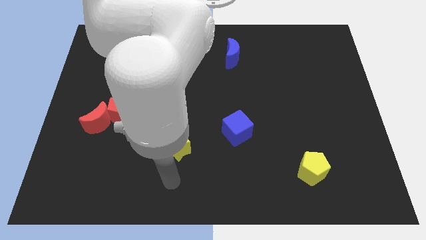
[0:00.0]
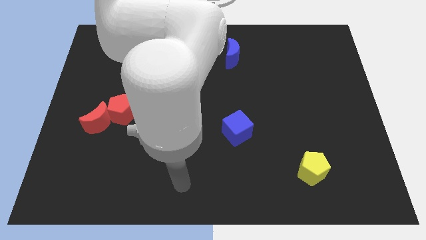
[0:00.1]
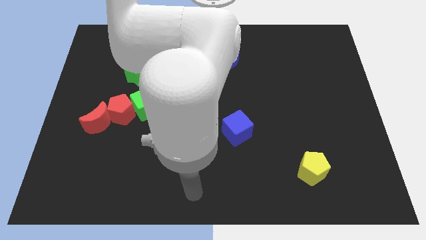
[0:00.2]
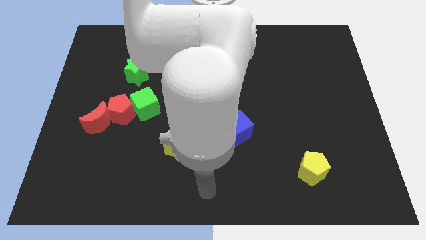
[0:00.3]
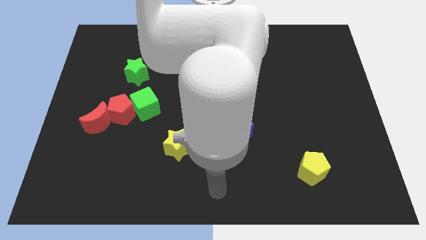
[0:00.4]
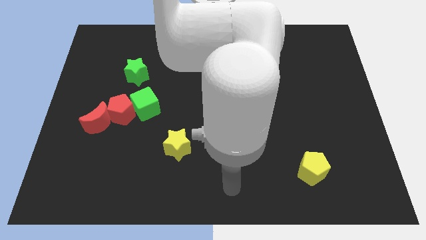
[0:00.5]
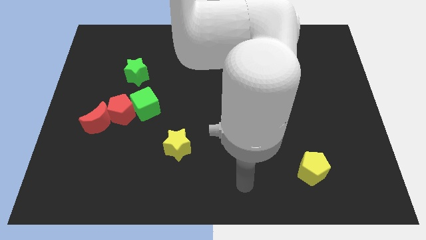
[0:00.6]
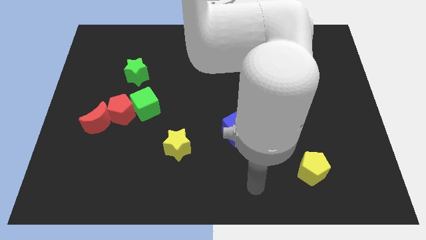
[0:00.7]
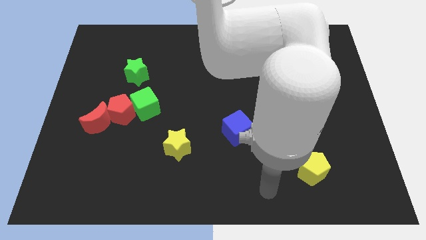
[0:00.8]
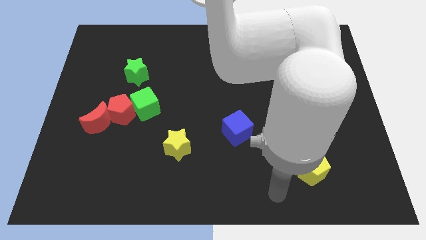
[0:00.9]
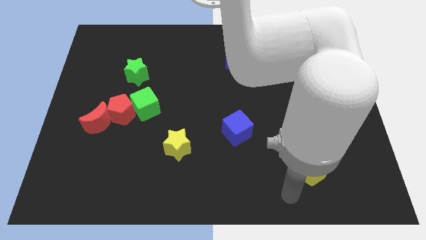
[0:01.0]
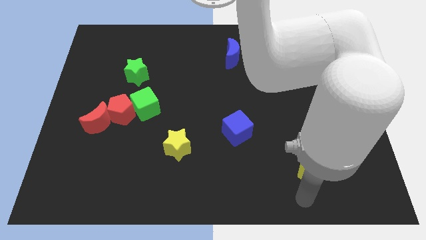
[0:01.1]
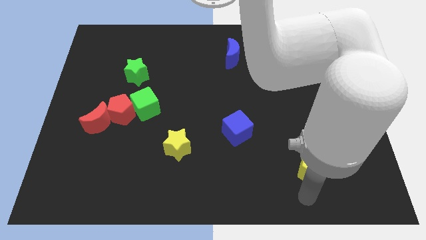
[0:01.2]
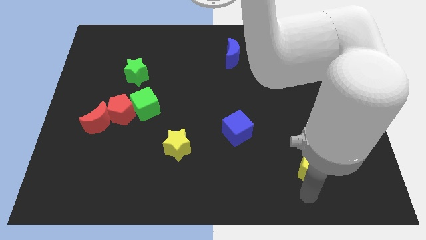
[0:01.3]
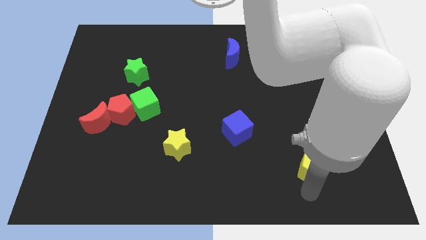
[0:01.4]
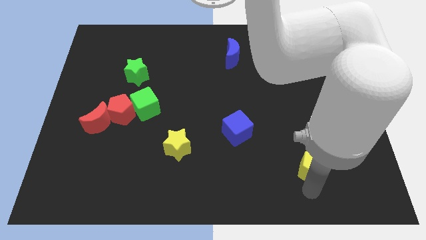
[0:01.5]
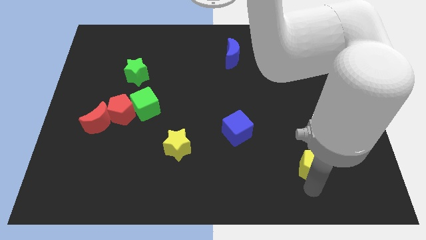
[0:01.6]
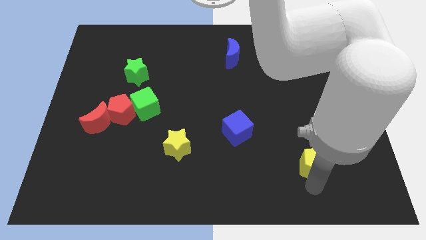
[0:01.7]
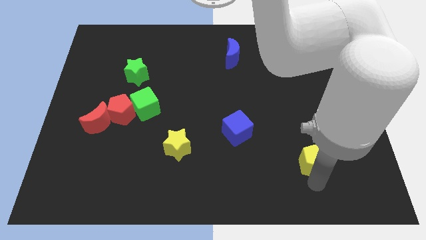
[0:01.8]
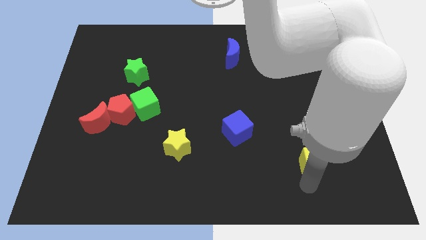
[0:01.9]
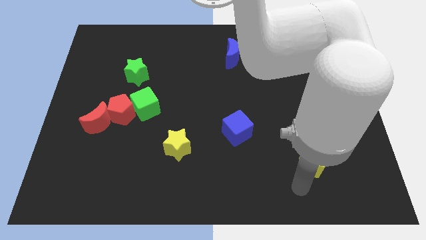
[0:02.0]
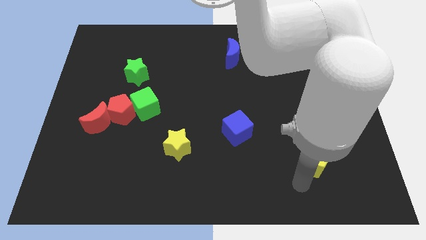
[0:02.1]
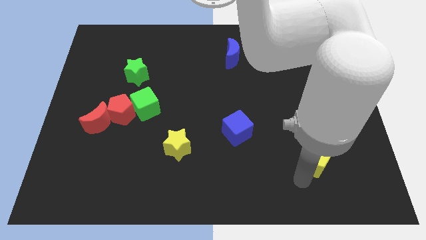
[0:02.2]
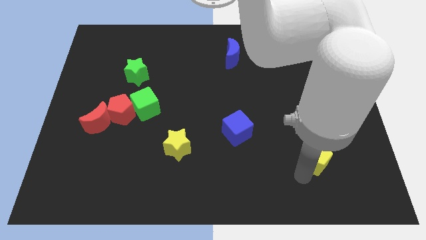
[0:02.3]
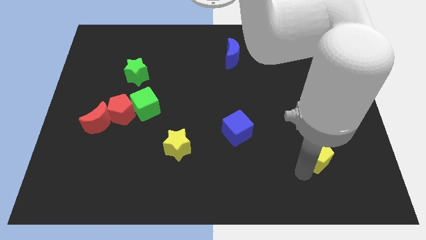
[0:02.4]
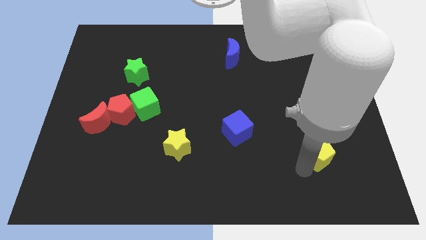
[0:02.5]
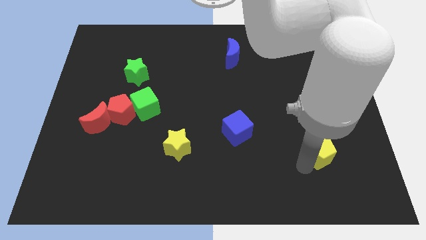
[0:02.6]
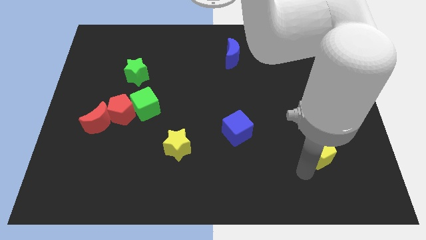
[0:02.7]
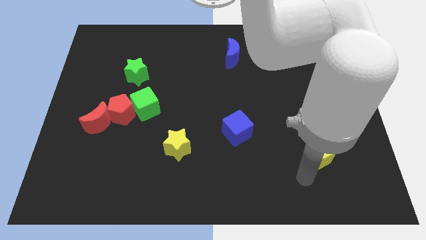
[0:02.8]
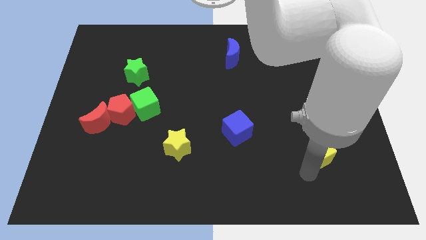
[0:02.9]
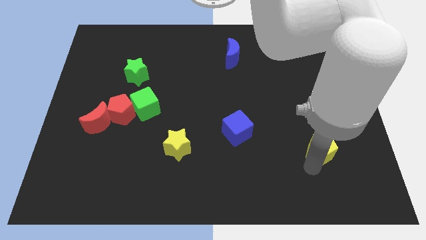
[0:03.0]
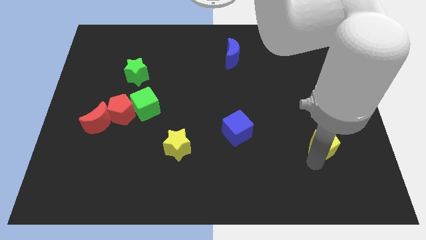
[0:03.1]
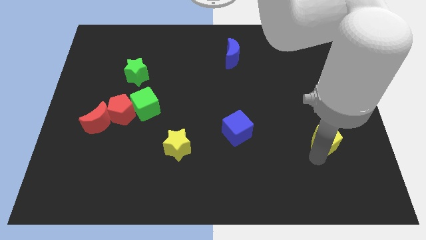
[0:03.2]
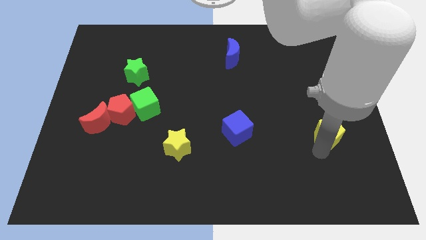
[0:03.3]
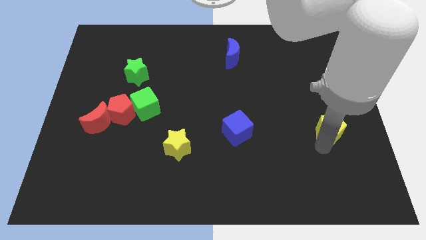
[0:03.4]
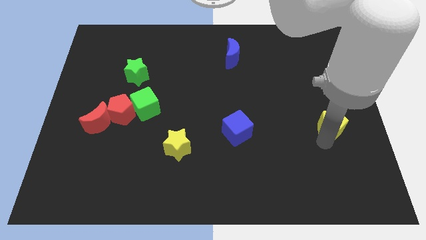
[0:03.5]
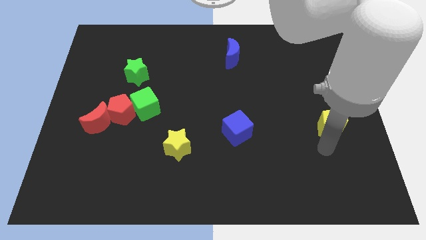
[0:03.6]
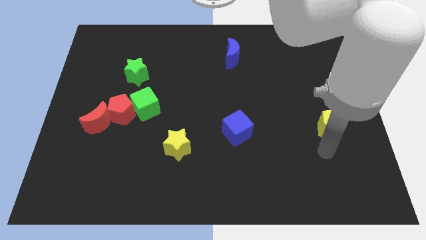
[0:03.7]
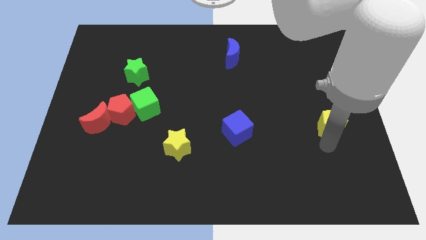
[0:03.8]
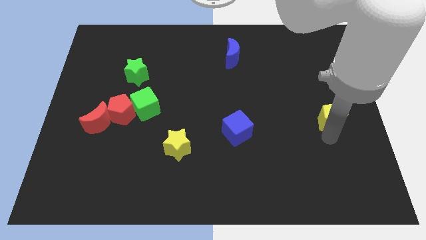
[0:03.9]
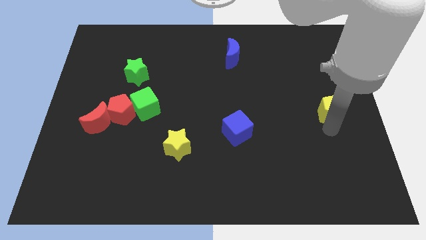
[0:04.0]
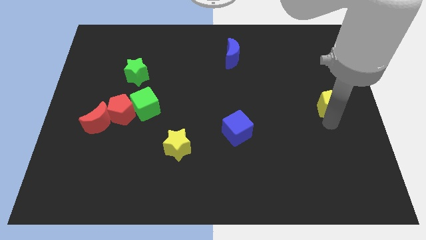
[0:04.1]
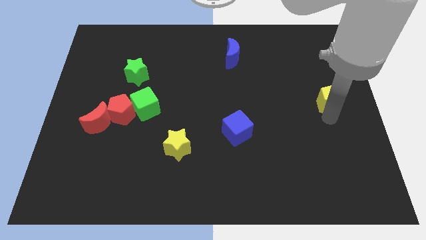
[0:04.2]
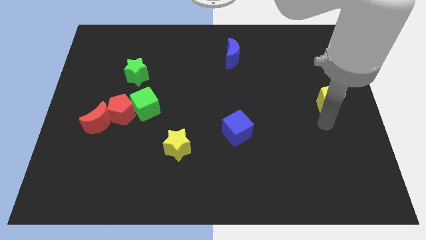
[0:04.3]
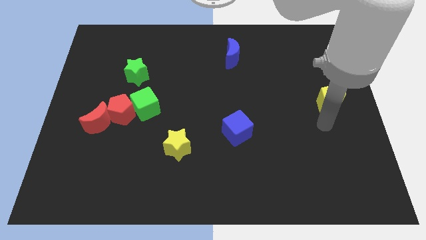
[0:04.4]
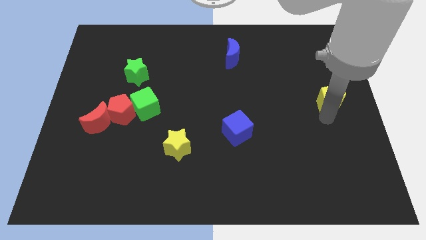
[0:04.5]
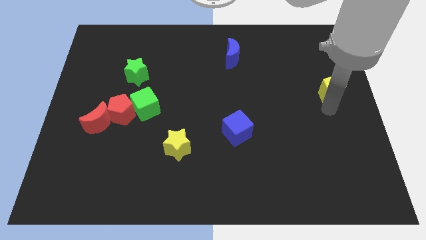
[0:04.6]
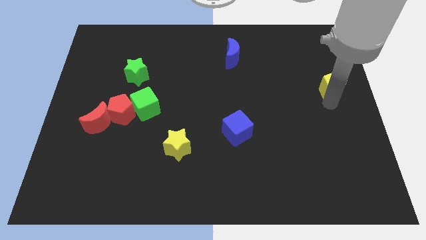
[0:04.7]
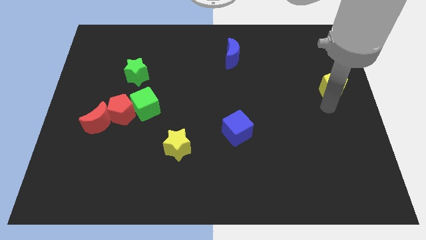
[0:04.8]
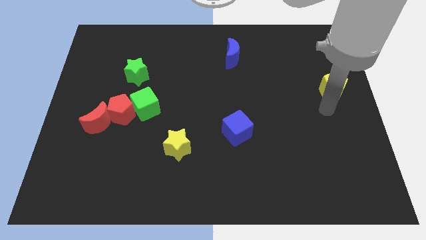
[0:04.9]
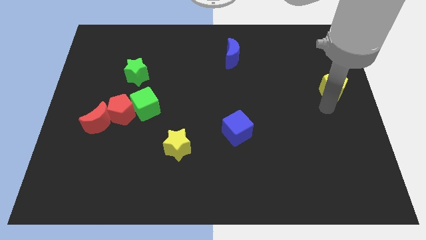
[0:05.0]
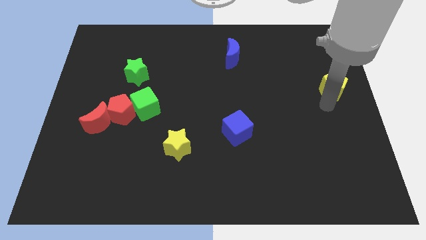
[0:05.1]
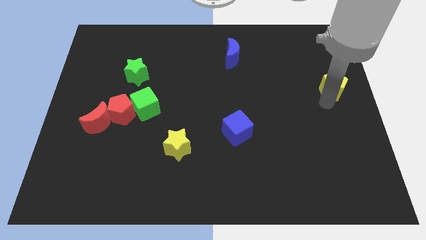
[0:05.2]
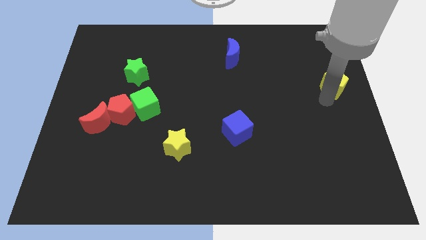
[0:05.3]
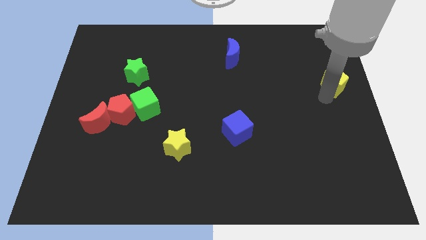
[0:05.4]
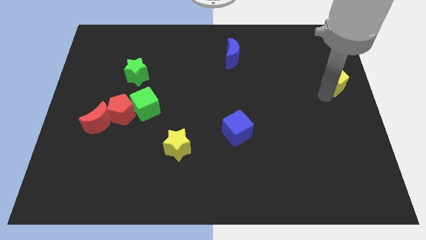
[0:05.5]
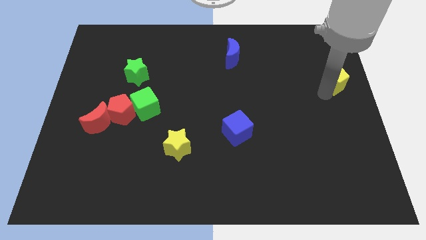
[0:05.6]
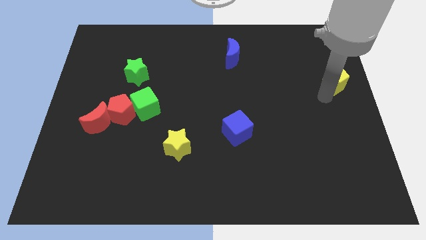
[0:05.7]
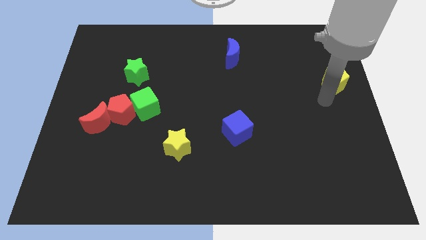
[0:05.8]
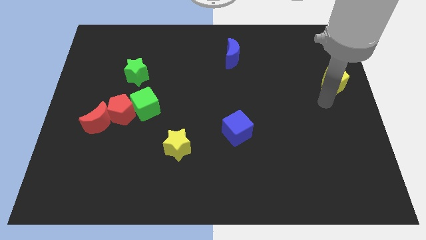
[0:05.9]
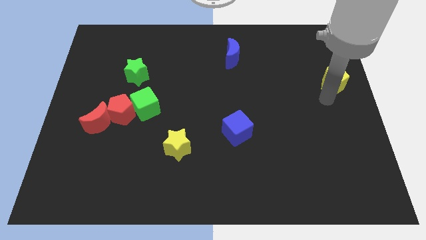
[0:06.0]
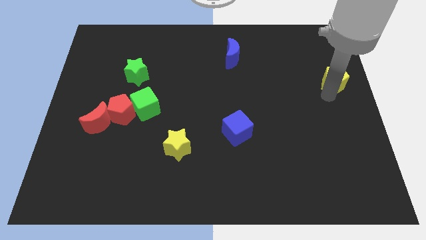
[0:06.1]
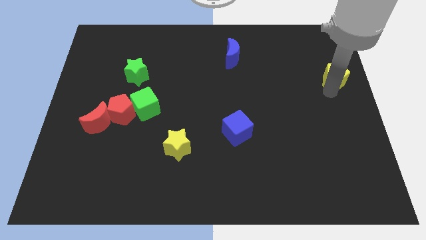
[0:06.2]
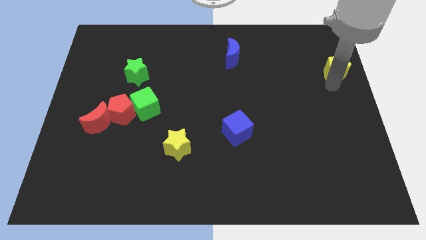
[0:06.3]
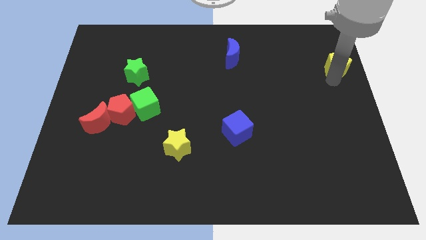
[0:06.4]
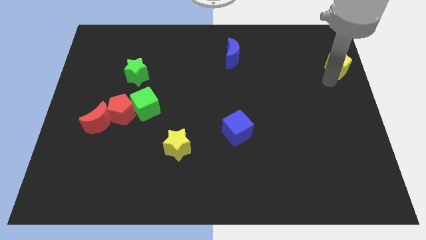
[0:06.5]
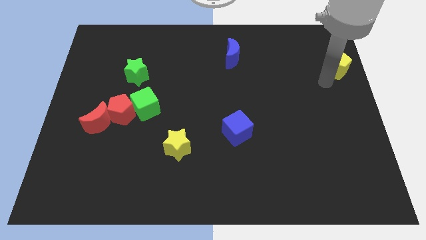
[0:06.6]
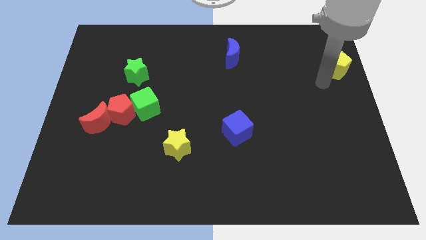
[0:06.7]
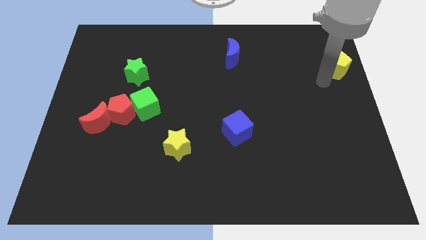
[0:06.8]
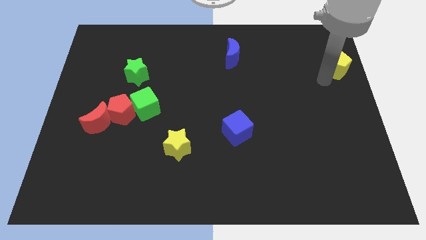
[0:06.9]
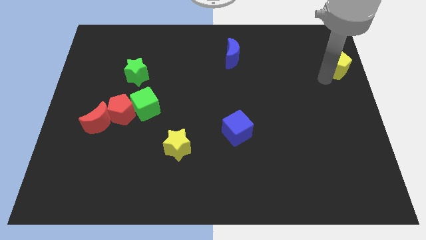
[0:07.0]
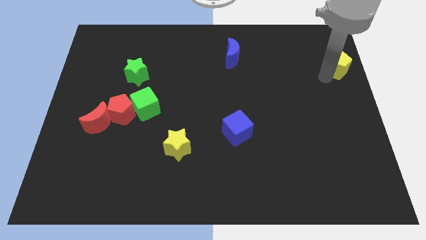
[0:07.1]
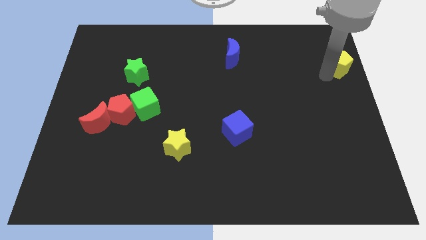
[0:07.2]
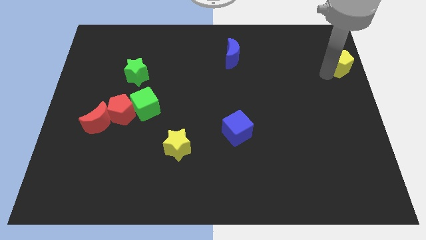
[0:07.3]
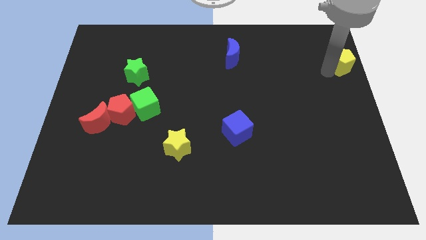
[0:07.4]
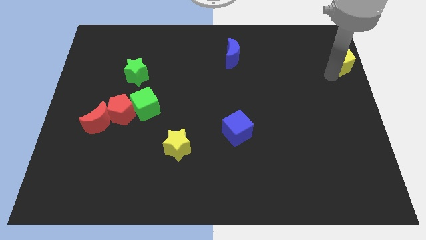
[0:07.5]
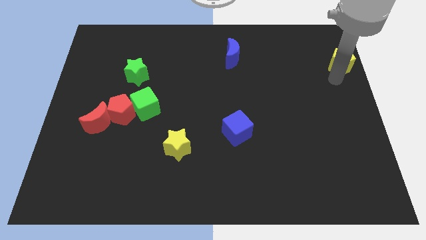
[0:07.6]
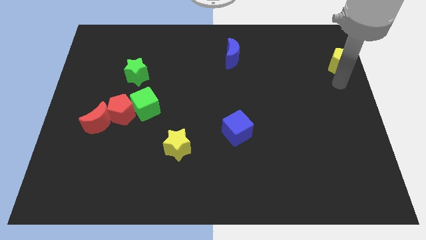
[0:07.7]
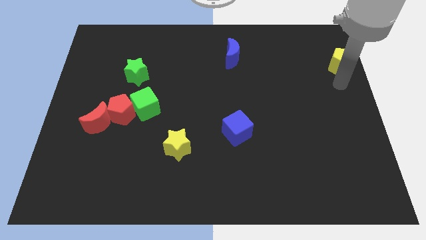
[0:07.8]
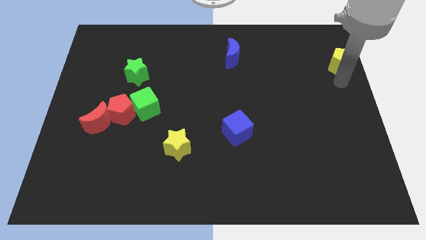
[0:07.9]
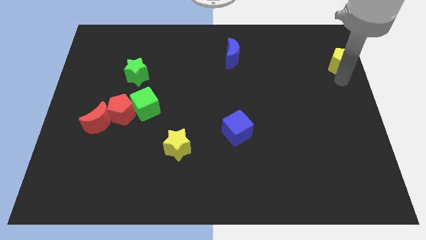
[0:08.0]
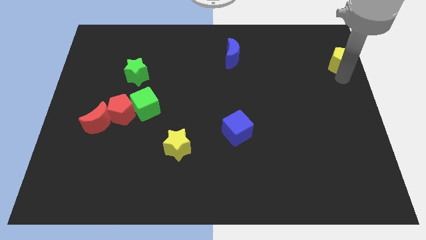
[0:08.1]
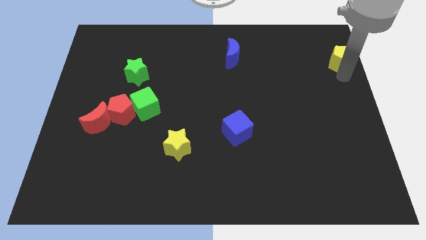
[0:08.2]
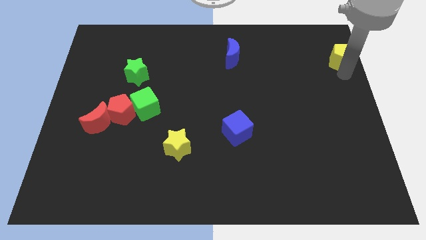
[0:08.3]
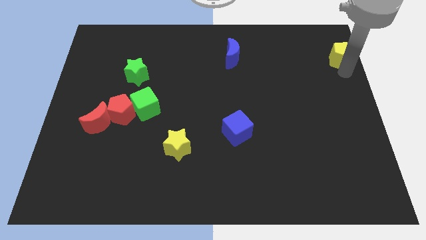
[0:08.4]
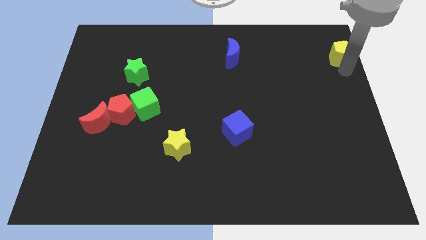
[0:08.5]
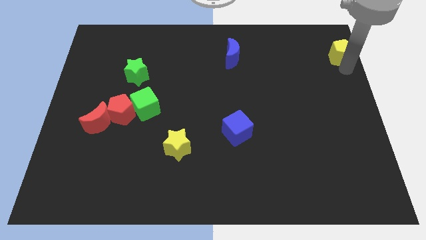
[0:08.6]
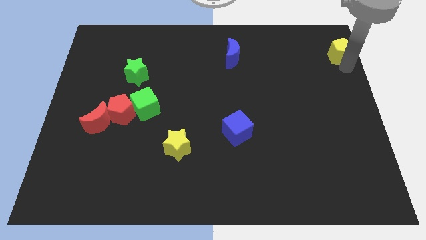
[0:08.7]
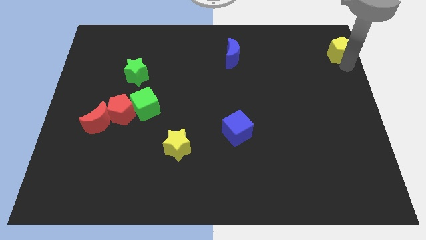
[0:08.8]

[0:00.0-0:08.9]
push the yellow pentagon to the top right of the board
